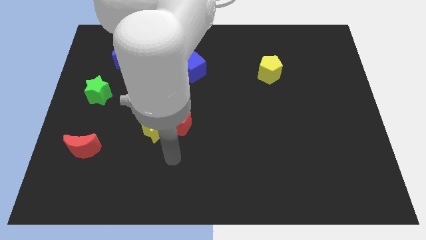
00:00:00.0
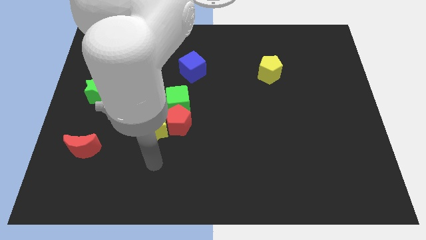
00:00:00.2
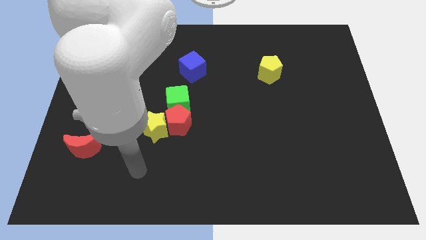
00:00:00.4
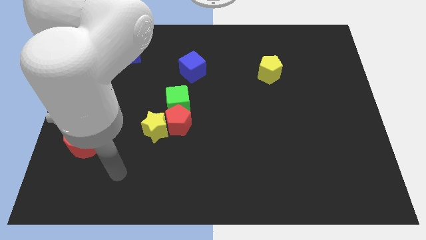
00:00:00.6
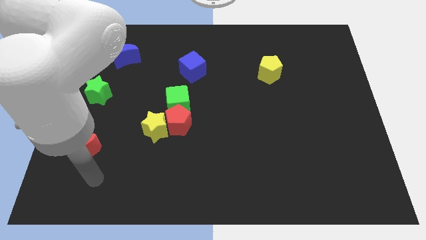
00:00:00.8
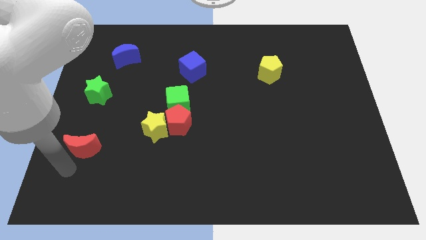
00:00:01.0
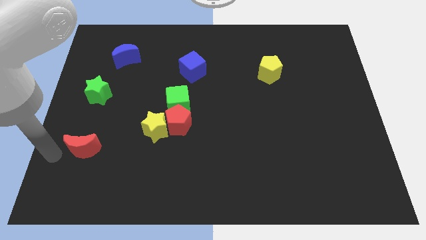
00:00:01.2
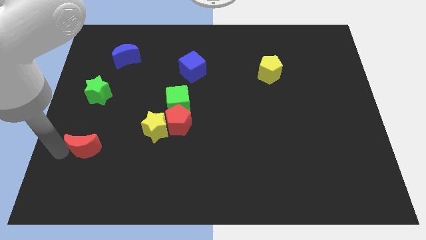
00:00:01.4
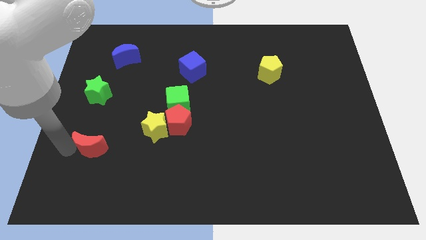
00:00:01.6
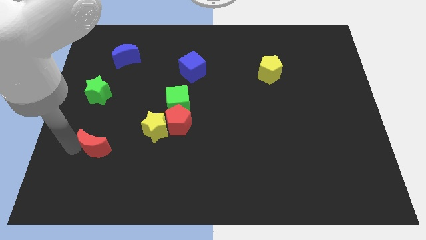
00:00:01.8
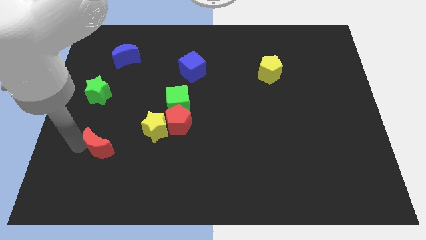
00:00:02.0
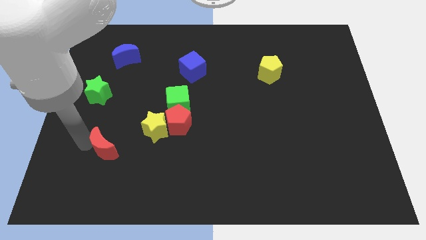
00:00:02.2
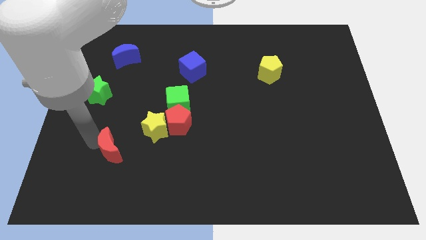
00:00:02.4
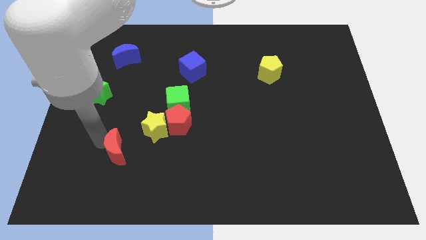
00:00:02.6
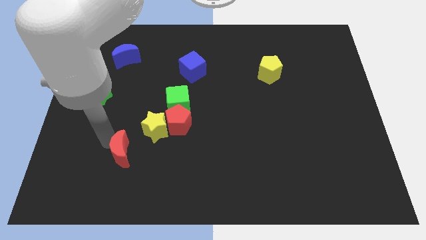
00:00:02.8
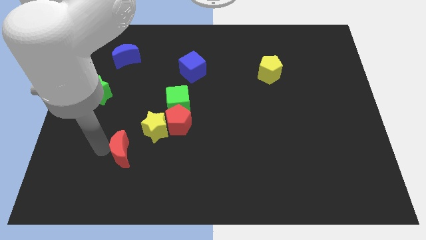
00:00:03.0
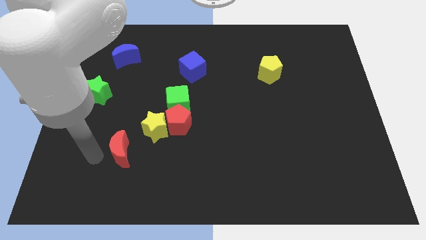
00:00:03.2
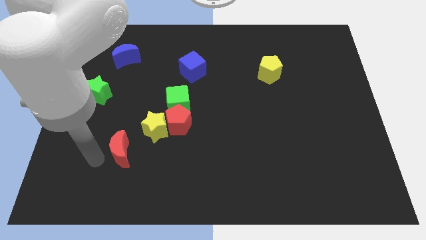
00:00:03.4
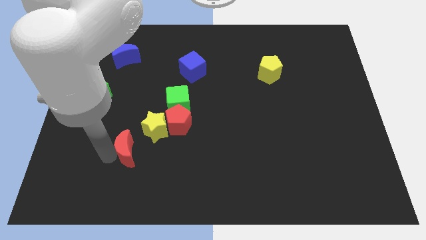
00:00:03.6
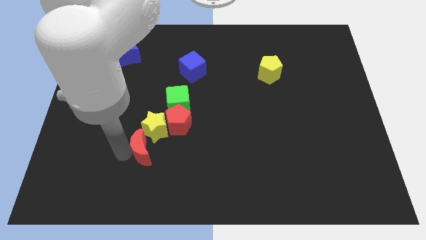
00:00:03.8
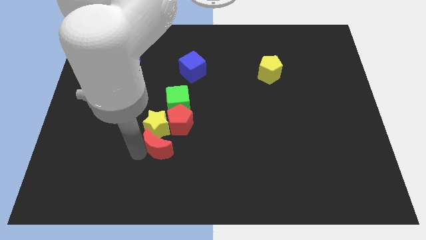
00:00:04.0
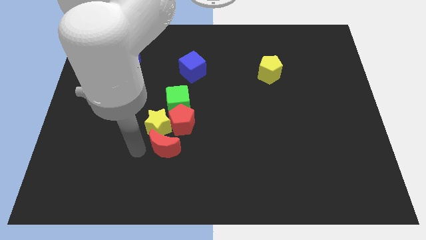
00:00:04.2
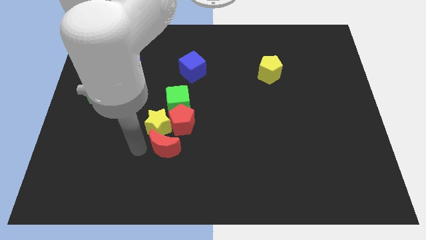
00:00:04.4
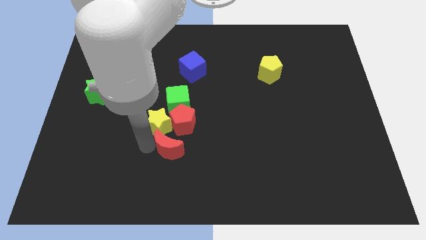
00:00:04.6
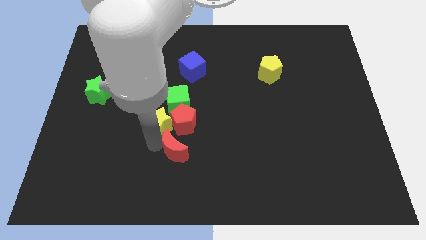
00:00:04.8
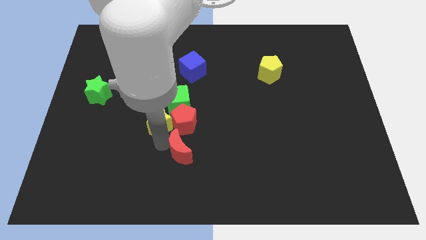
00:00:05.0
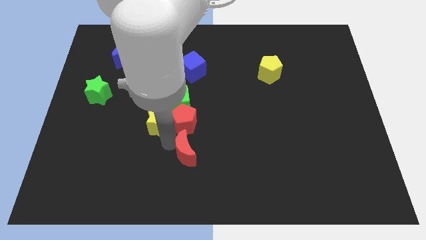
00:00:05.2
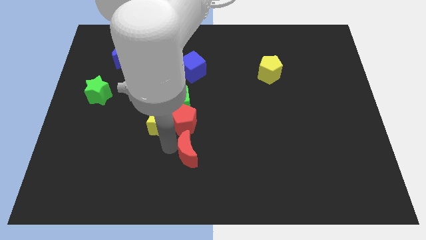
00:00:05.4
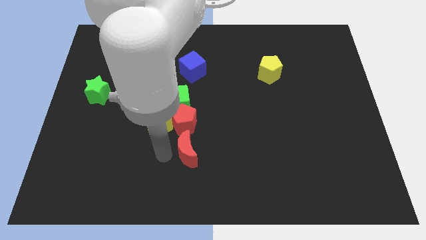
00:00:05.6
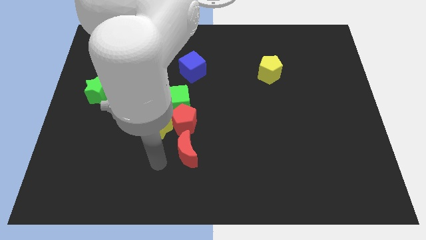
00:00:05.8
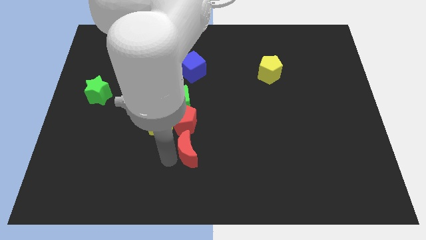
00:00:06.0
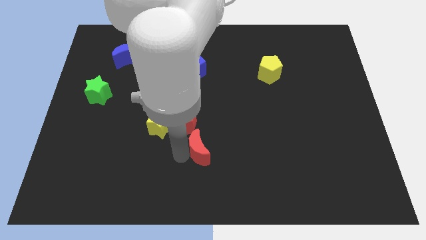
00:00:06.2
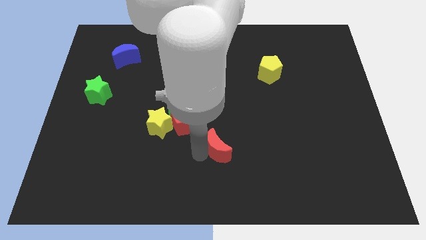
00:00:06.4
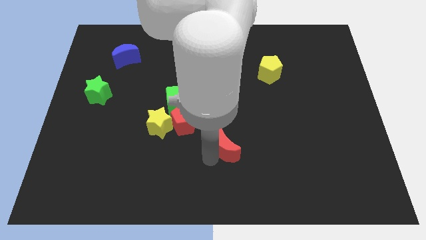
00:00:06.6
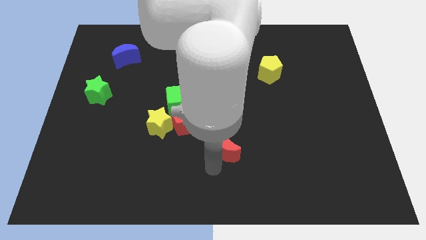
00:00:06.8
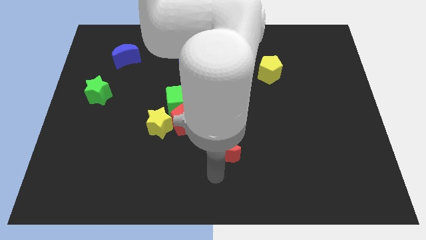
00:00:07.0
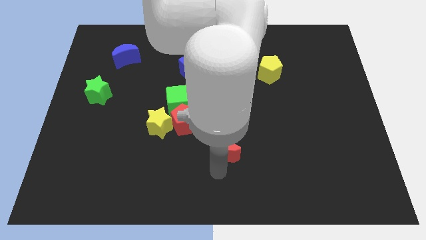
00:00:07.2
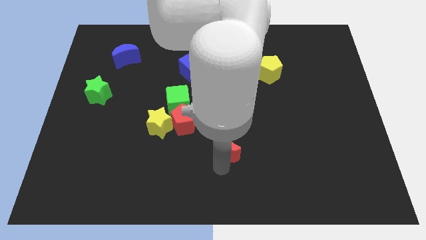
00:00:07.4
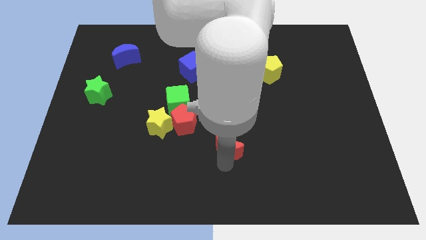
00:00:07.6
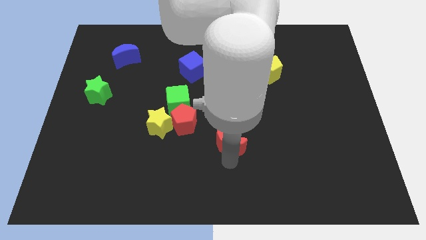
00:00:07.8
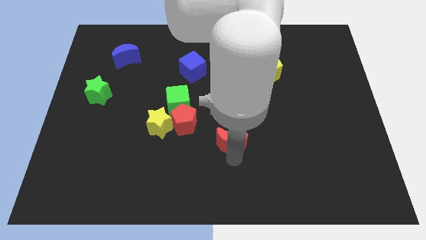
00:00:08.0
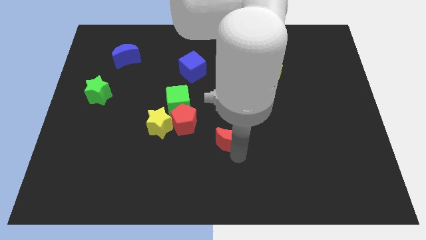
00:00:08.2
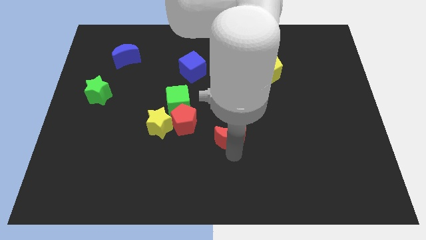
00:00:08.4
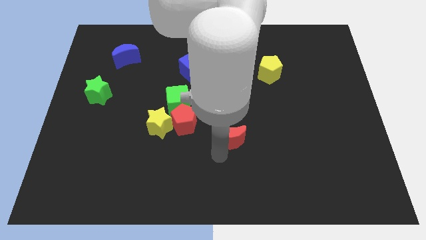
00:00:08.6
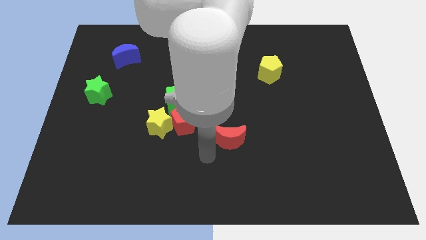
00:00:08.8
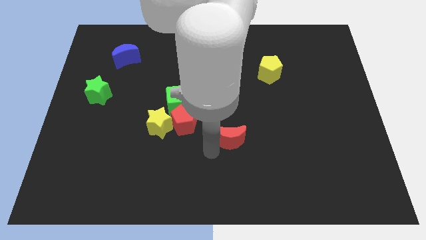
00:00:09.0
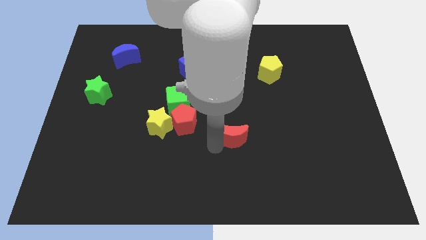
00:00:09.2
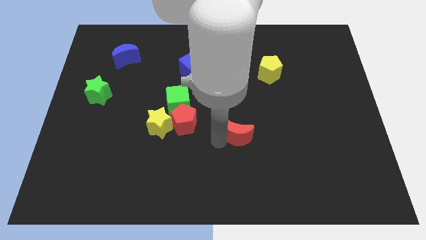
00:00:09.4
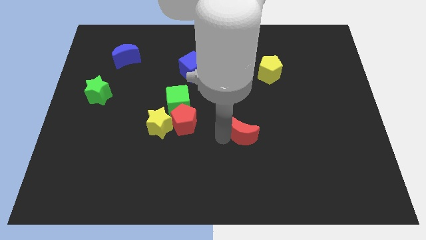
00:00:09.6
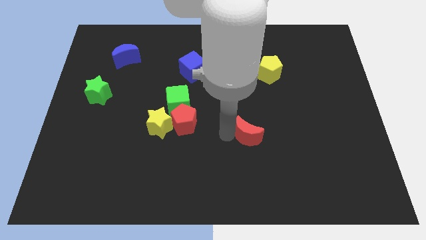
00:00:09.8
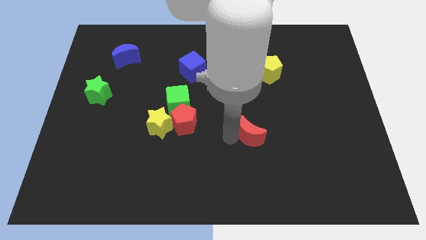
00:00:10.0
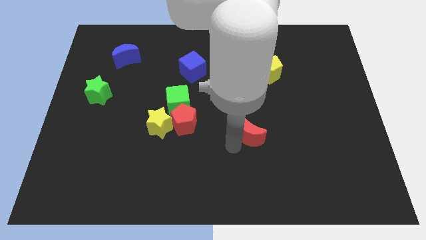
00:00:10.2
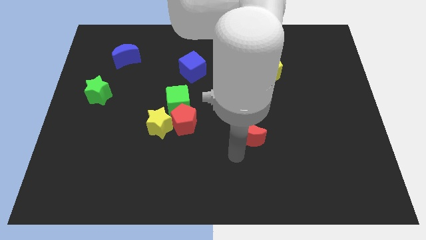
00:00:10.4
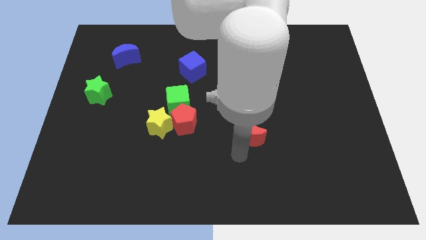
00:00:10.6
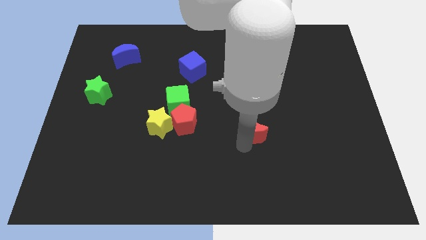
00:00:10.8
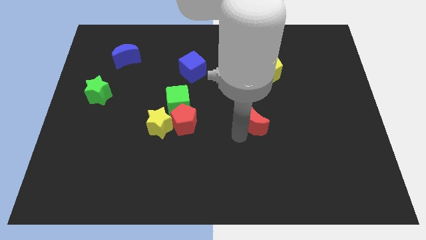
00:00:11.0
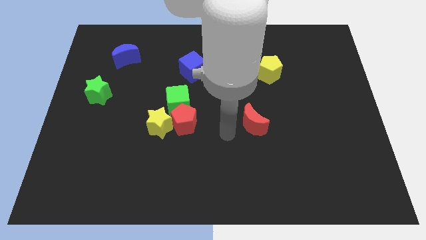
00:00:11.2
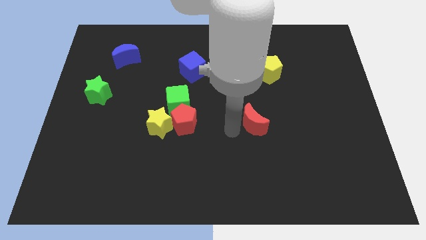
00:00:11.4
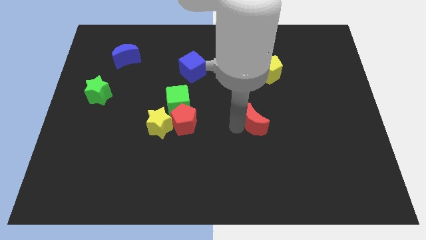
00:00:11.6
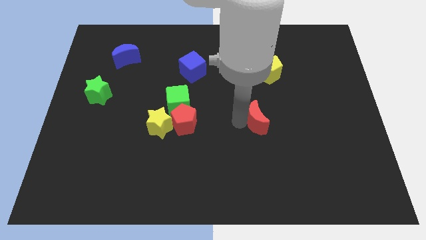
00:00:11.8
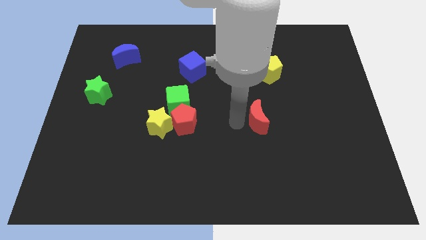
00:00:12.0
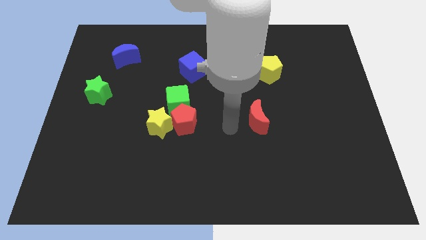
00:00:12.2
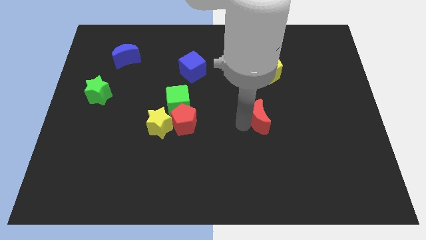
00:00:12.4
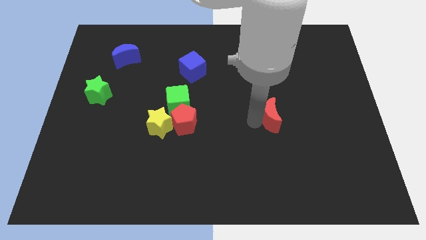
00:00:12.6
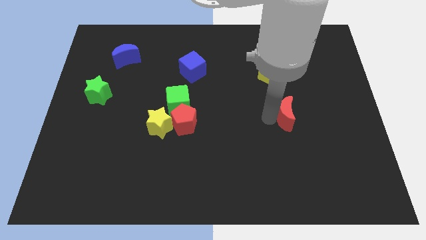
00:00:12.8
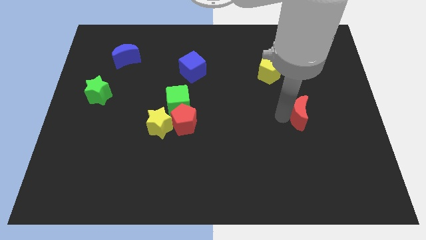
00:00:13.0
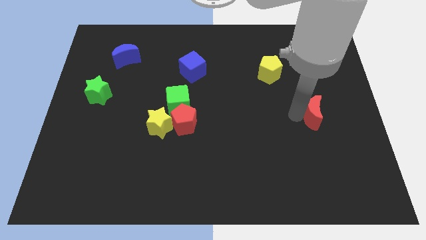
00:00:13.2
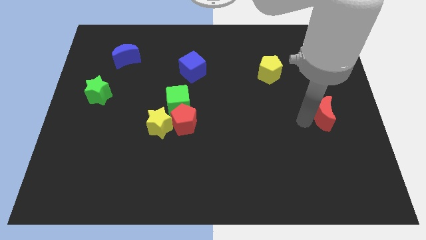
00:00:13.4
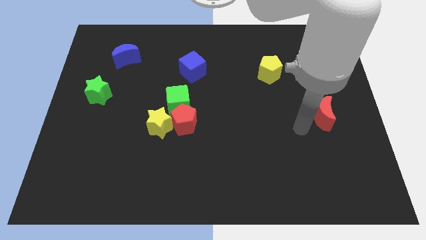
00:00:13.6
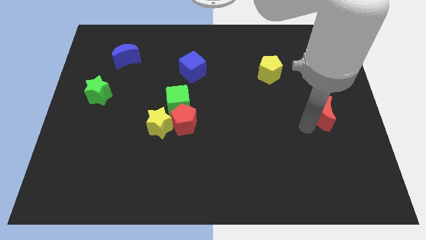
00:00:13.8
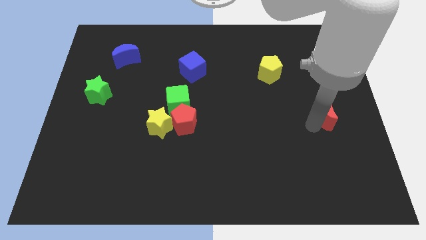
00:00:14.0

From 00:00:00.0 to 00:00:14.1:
move the red moon to the right side
